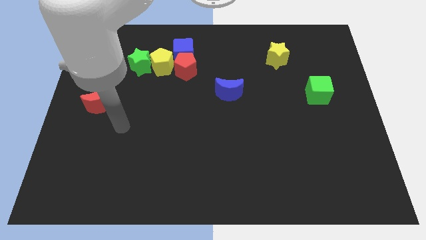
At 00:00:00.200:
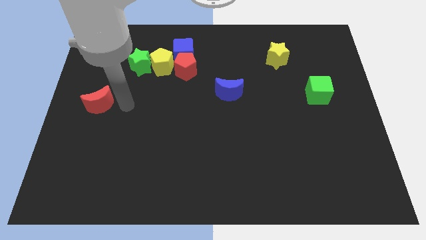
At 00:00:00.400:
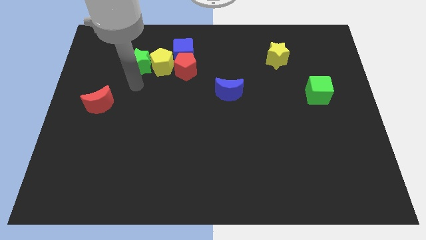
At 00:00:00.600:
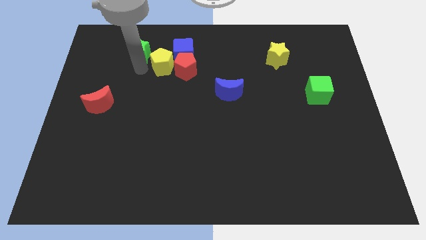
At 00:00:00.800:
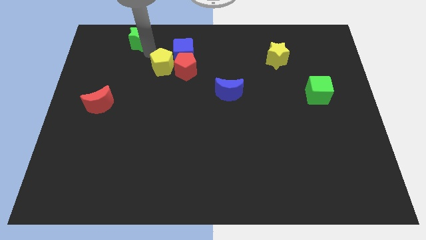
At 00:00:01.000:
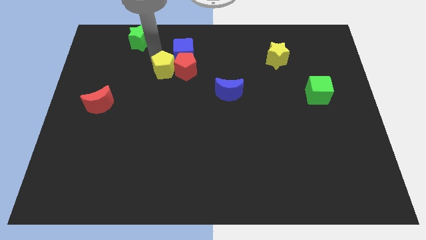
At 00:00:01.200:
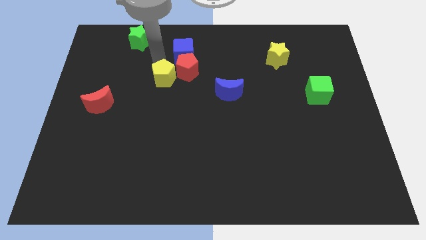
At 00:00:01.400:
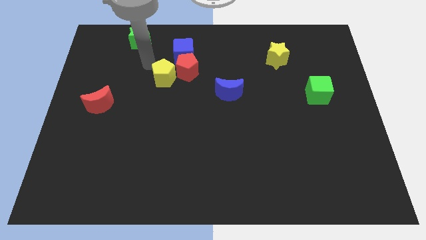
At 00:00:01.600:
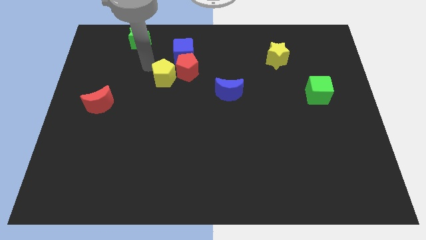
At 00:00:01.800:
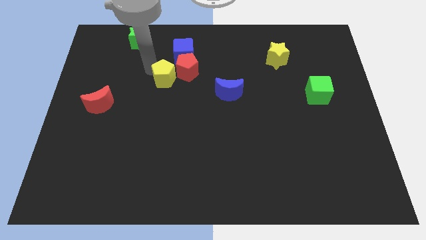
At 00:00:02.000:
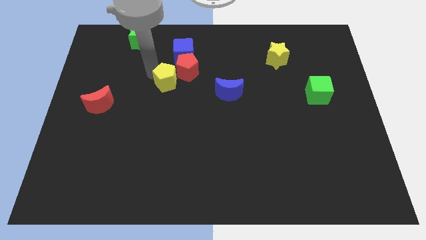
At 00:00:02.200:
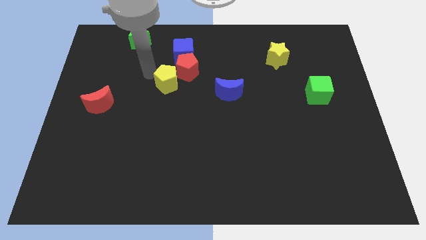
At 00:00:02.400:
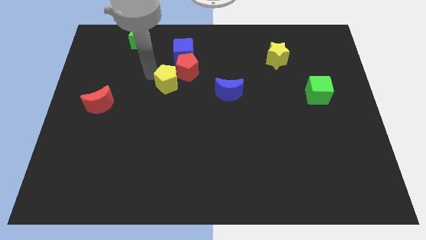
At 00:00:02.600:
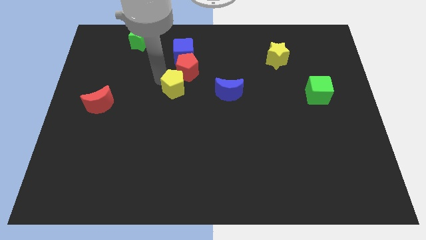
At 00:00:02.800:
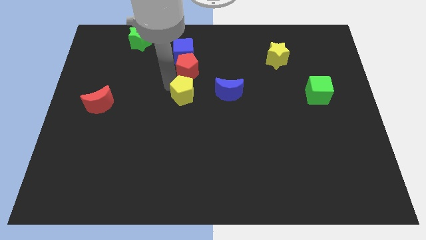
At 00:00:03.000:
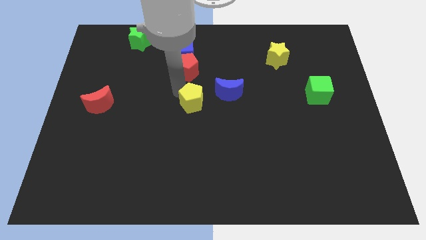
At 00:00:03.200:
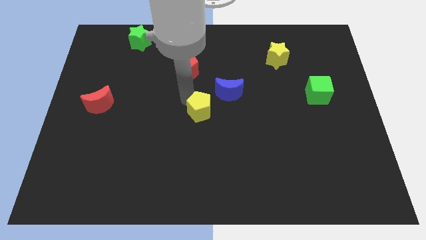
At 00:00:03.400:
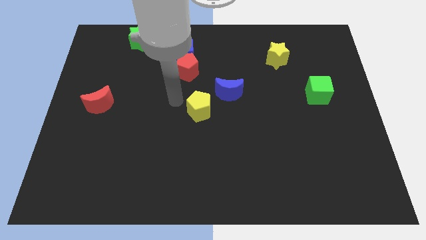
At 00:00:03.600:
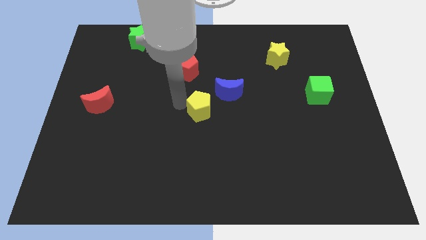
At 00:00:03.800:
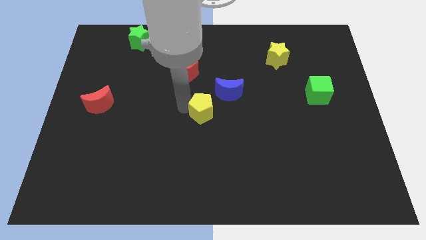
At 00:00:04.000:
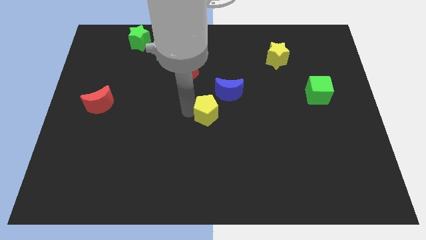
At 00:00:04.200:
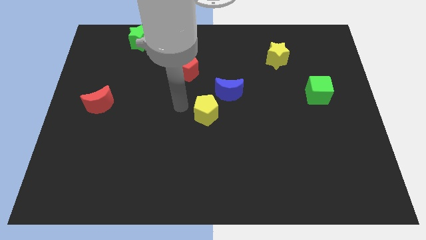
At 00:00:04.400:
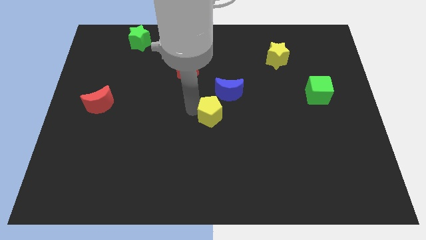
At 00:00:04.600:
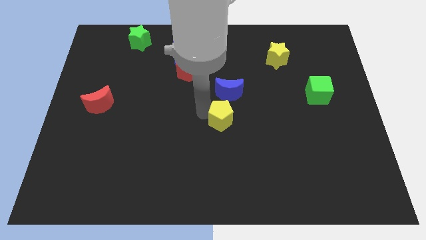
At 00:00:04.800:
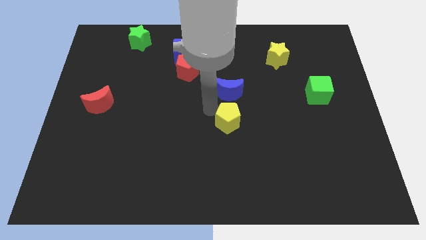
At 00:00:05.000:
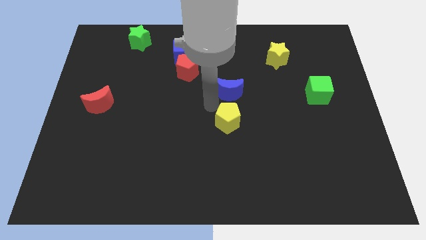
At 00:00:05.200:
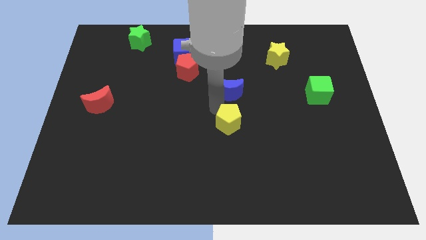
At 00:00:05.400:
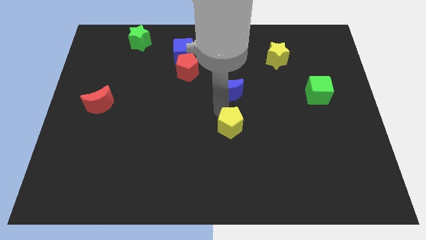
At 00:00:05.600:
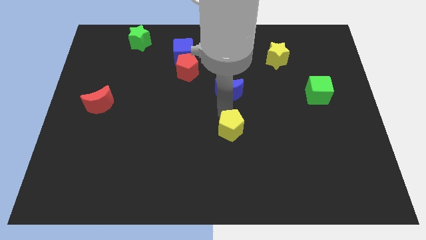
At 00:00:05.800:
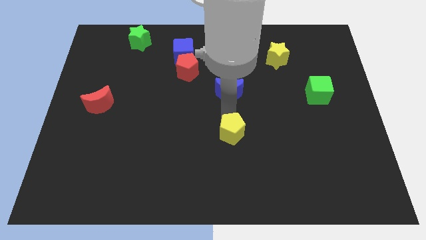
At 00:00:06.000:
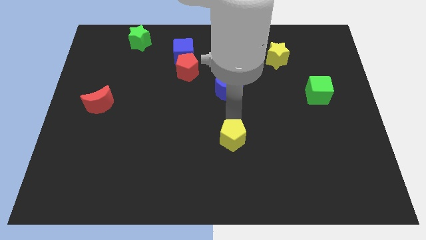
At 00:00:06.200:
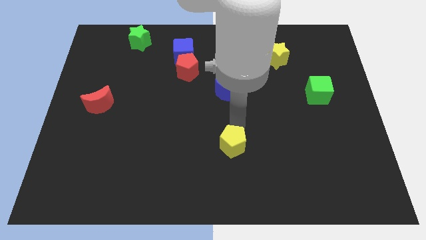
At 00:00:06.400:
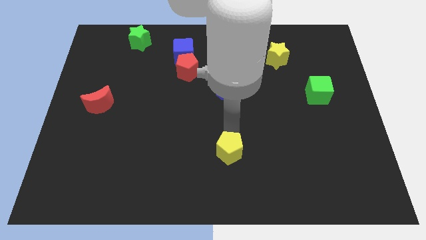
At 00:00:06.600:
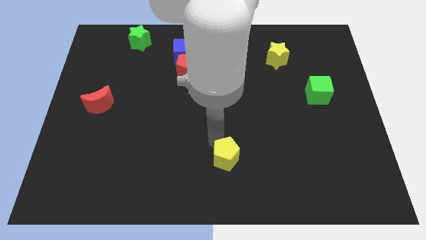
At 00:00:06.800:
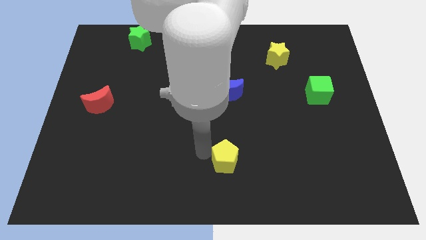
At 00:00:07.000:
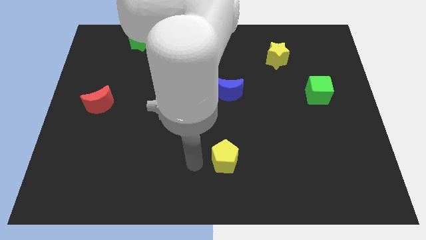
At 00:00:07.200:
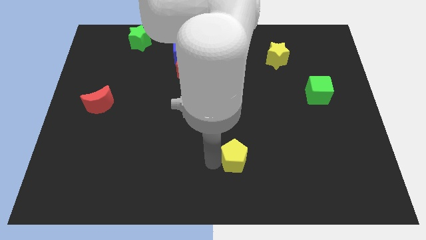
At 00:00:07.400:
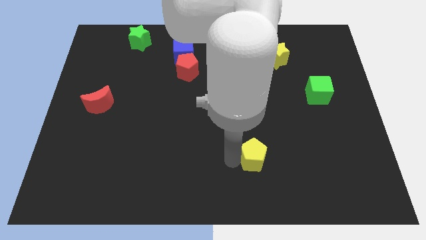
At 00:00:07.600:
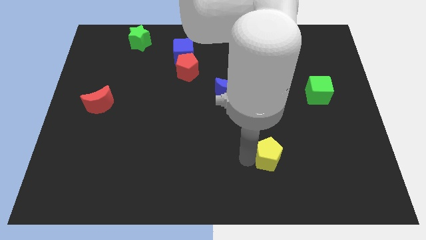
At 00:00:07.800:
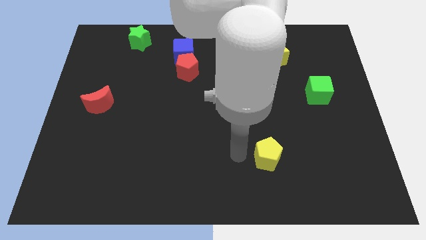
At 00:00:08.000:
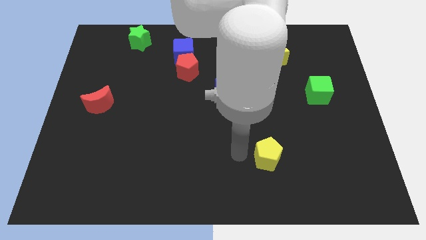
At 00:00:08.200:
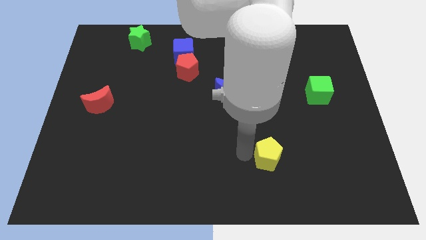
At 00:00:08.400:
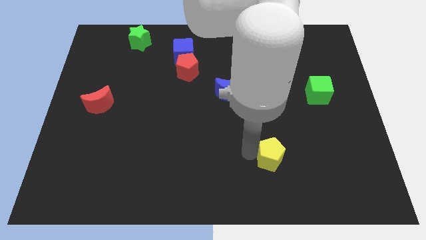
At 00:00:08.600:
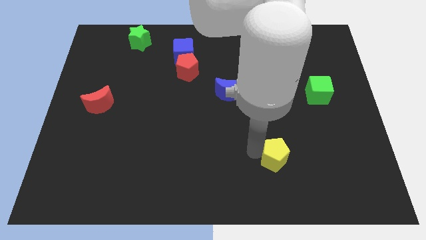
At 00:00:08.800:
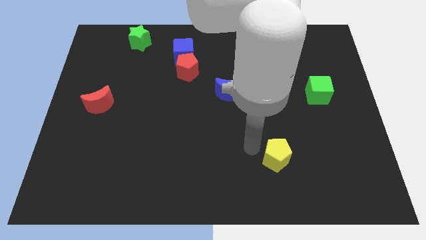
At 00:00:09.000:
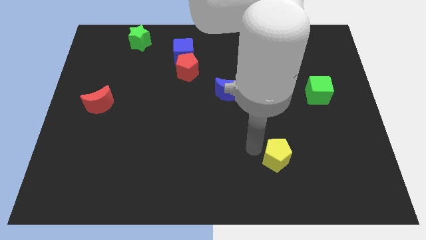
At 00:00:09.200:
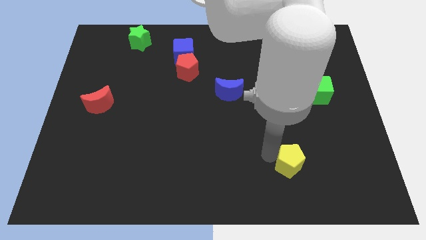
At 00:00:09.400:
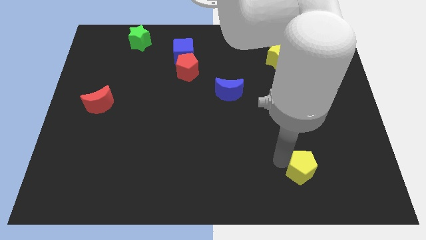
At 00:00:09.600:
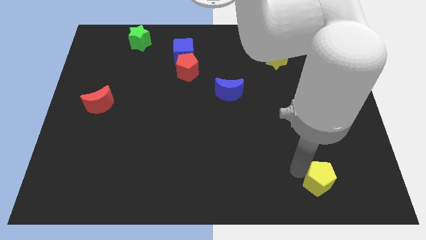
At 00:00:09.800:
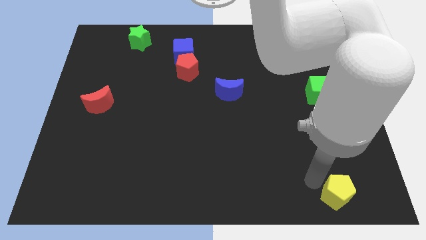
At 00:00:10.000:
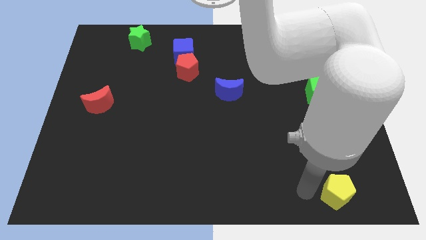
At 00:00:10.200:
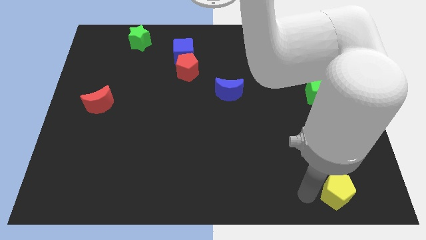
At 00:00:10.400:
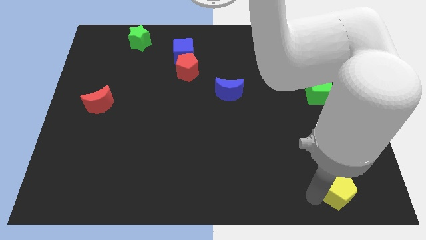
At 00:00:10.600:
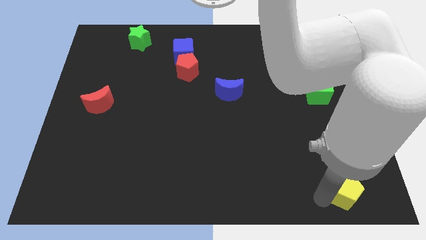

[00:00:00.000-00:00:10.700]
move the yellow pentagon to the lower right corner

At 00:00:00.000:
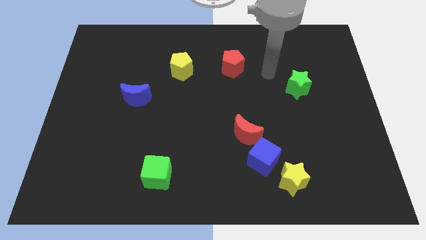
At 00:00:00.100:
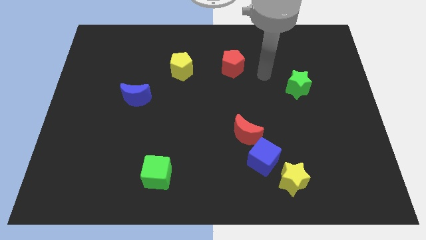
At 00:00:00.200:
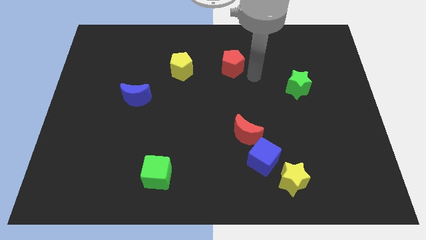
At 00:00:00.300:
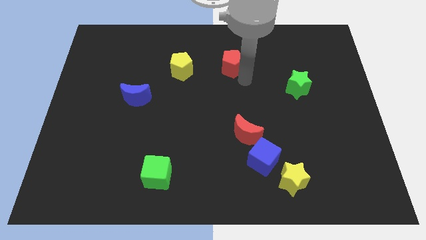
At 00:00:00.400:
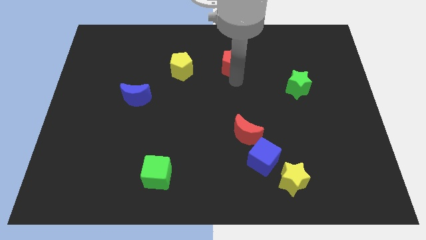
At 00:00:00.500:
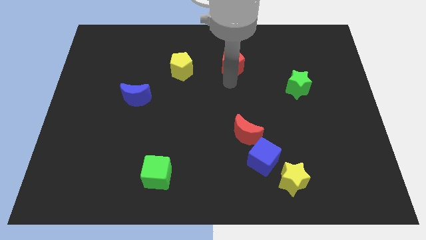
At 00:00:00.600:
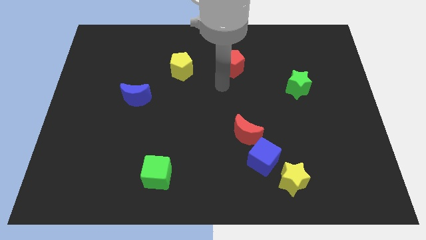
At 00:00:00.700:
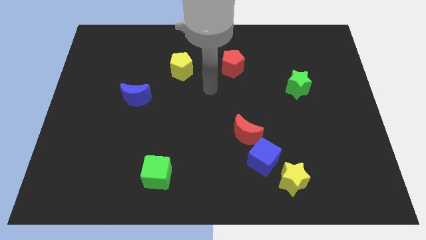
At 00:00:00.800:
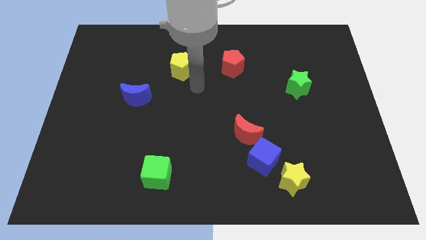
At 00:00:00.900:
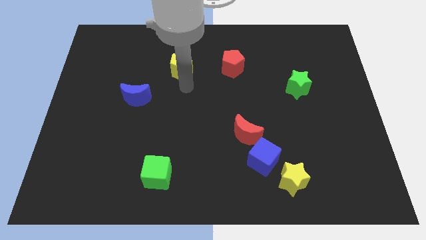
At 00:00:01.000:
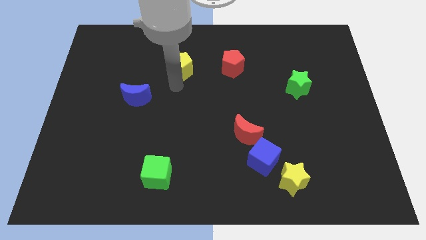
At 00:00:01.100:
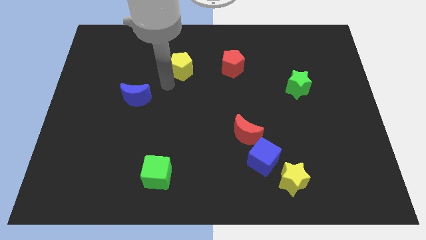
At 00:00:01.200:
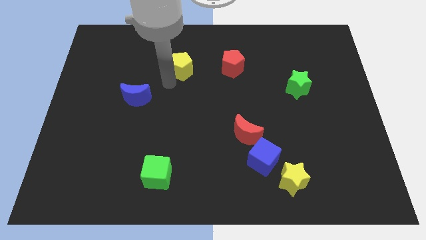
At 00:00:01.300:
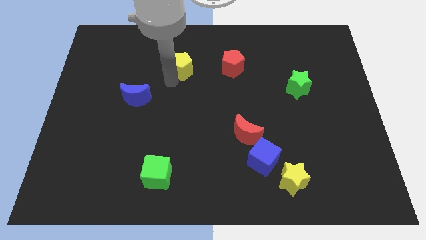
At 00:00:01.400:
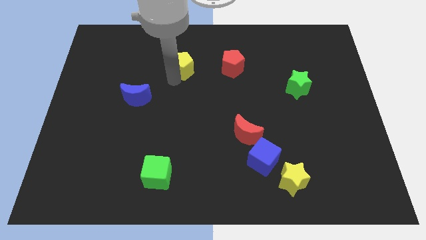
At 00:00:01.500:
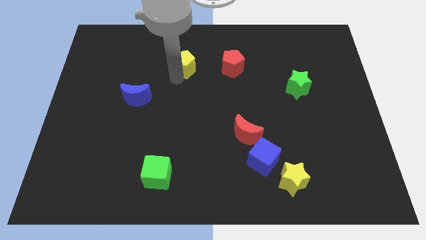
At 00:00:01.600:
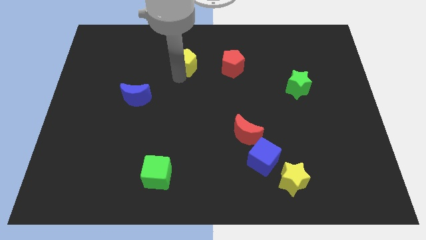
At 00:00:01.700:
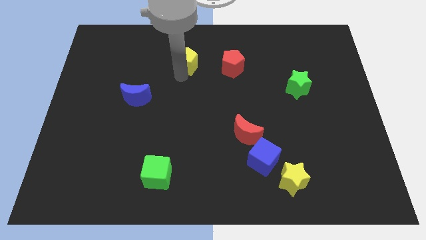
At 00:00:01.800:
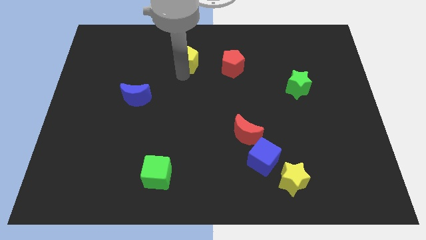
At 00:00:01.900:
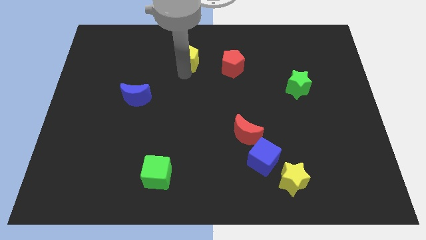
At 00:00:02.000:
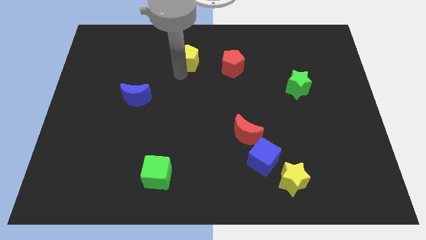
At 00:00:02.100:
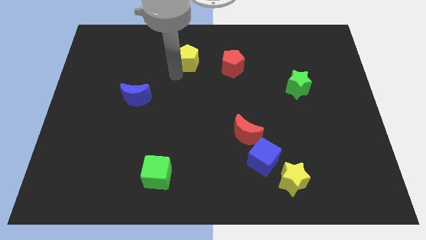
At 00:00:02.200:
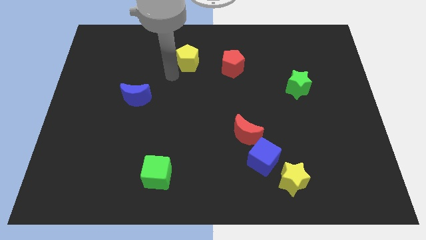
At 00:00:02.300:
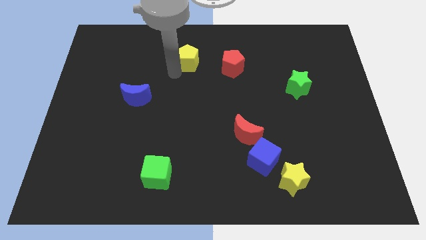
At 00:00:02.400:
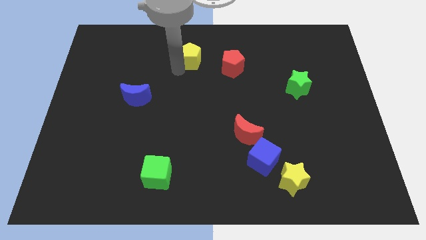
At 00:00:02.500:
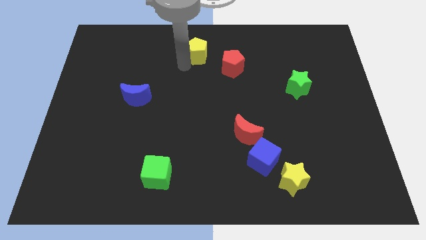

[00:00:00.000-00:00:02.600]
move the yellow pentagon to the towards your base
